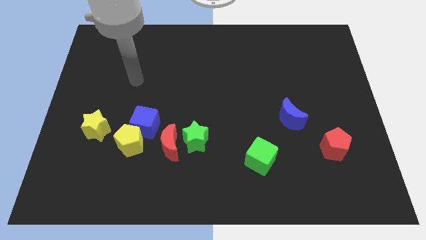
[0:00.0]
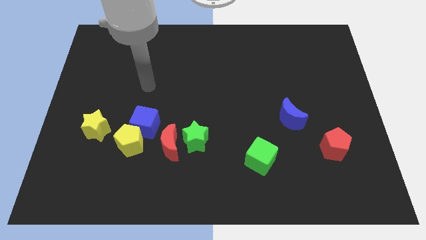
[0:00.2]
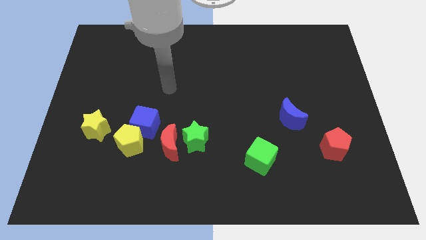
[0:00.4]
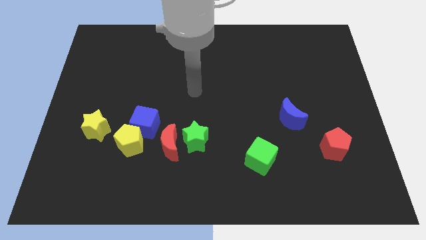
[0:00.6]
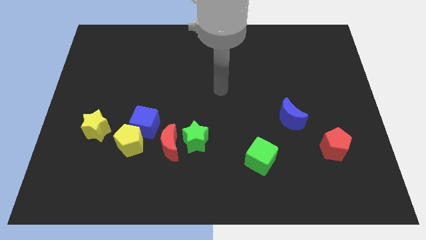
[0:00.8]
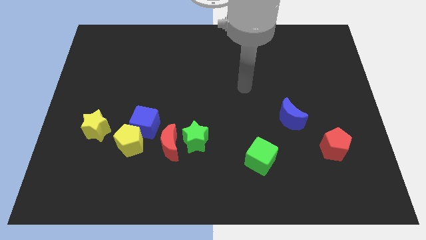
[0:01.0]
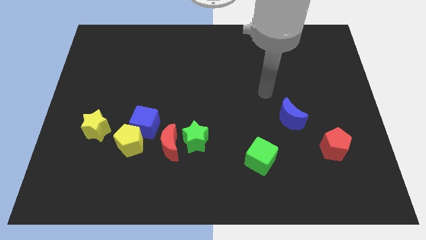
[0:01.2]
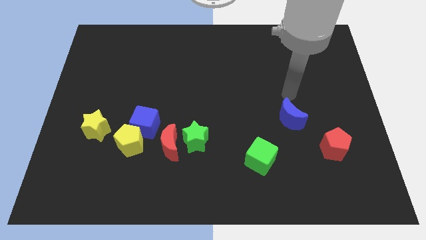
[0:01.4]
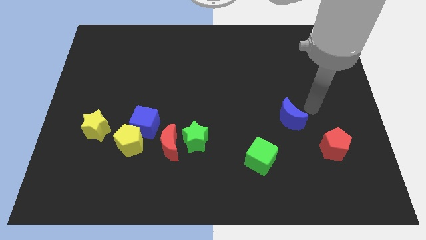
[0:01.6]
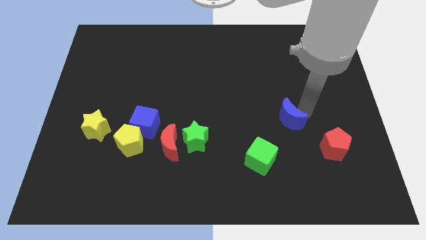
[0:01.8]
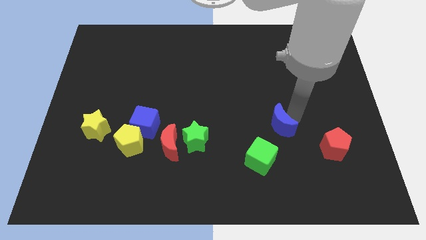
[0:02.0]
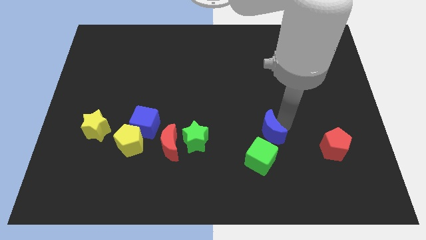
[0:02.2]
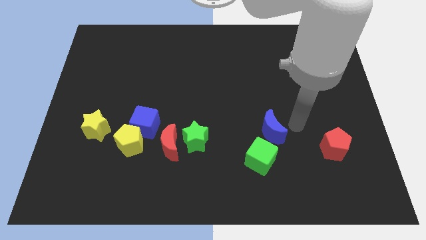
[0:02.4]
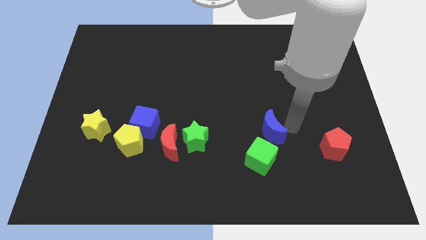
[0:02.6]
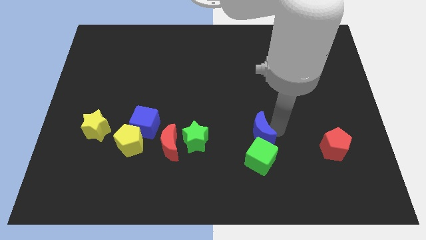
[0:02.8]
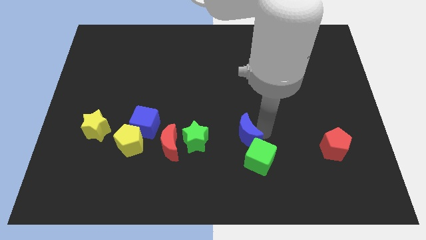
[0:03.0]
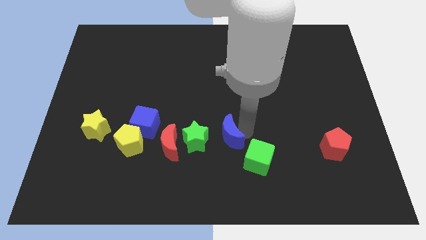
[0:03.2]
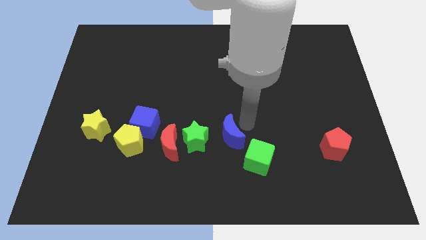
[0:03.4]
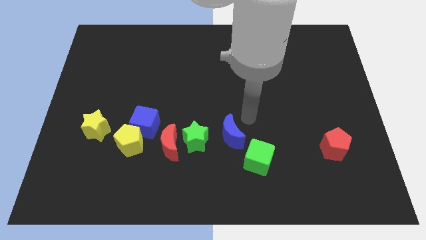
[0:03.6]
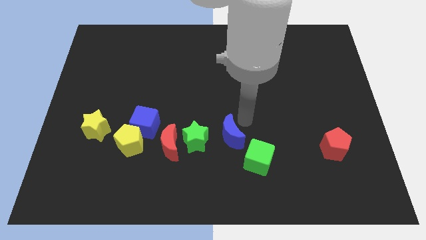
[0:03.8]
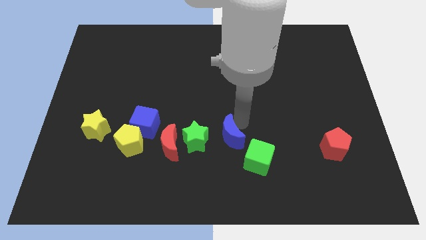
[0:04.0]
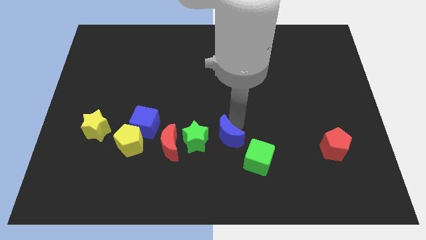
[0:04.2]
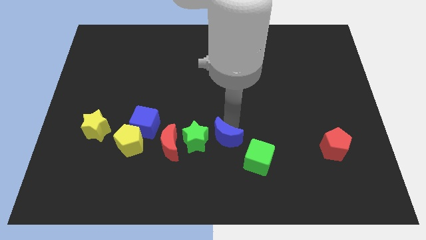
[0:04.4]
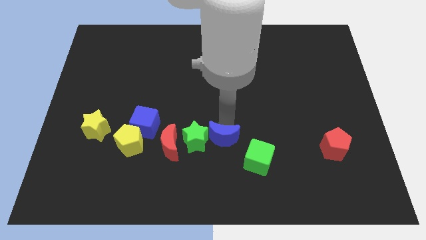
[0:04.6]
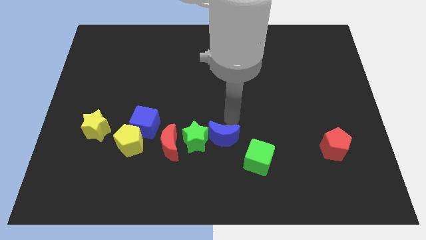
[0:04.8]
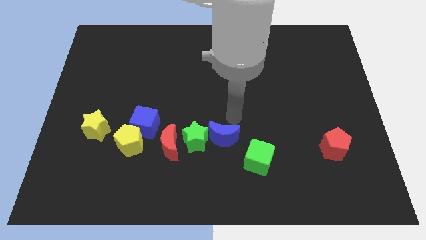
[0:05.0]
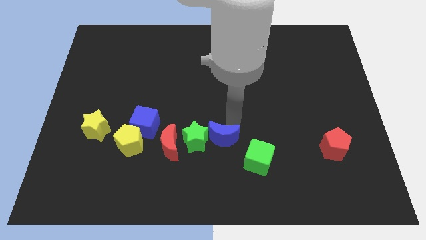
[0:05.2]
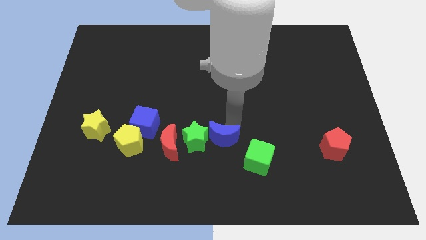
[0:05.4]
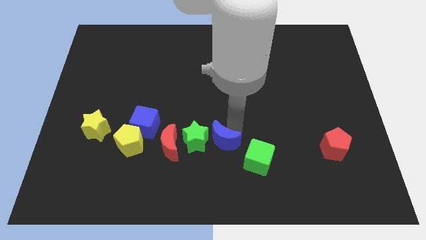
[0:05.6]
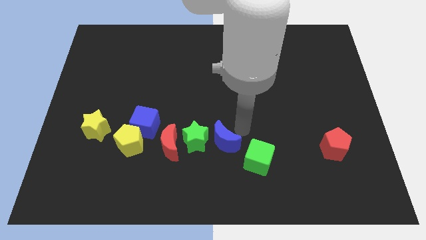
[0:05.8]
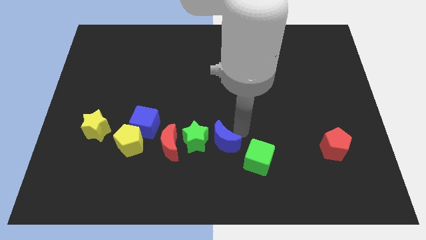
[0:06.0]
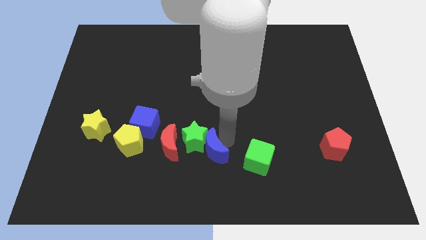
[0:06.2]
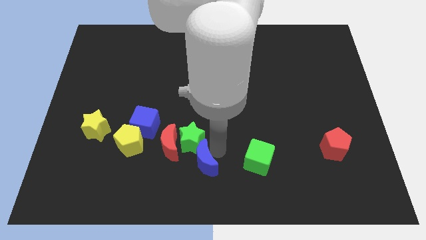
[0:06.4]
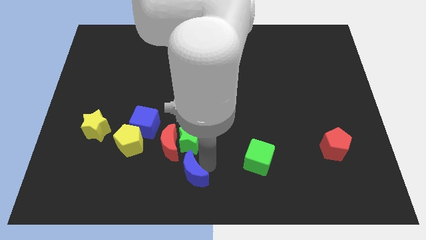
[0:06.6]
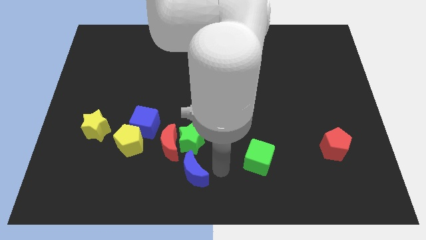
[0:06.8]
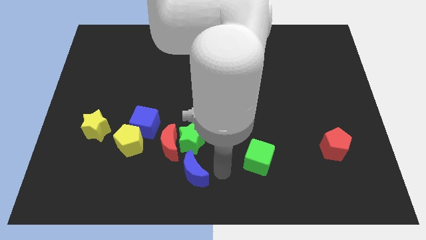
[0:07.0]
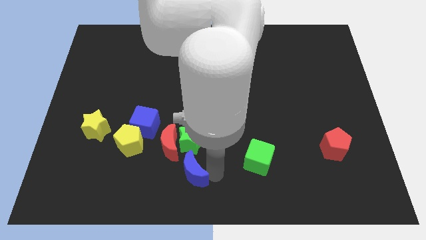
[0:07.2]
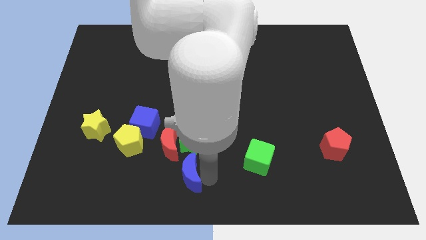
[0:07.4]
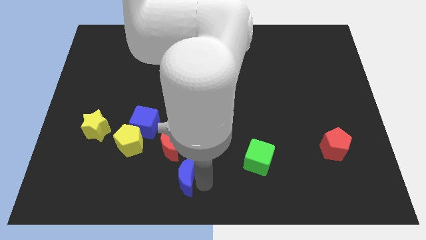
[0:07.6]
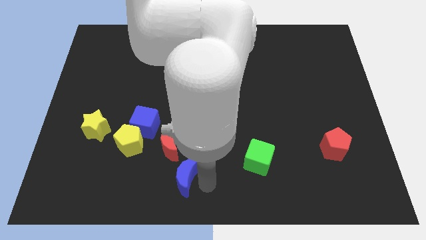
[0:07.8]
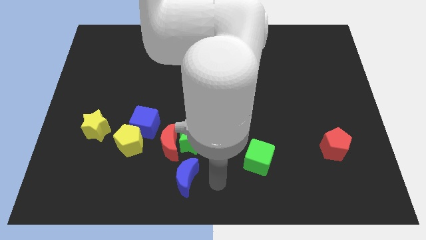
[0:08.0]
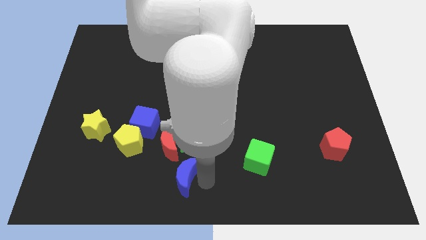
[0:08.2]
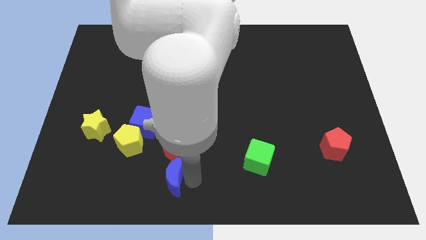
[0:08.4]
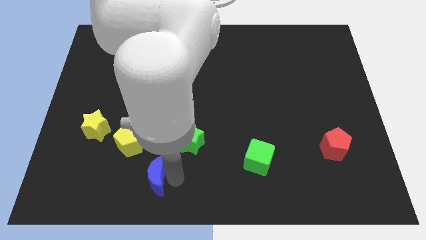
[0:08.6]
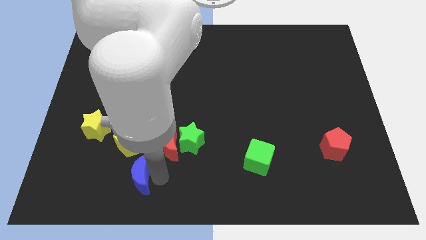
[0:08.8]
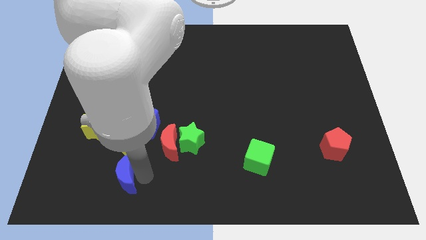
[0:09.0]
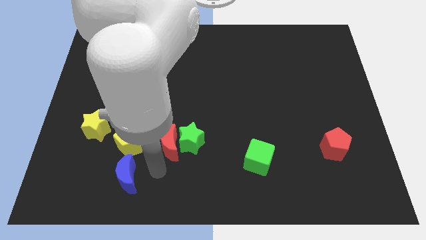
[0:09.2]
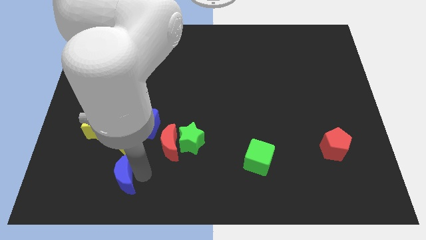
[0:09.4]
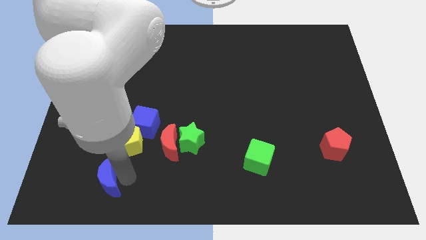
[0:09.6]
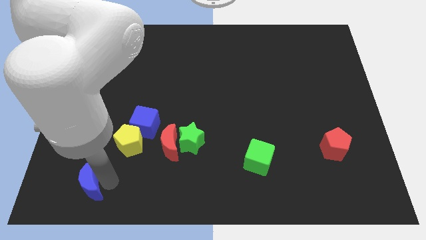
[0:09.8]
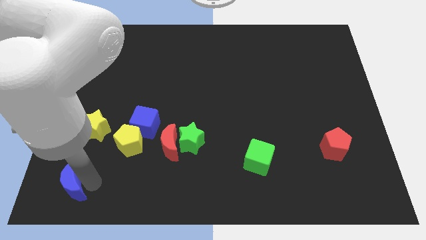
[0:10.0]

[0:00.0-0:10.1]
slide the blue moon to the bottom left corner

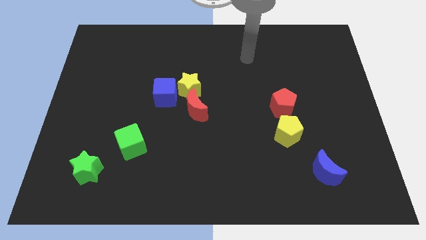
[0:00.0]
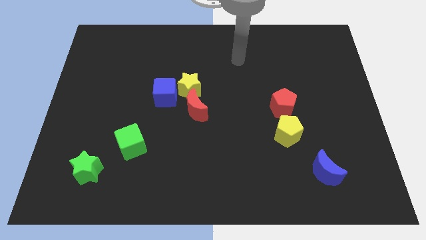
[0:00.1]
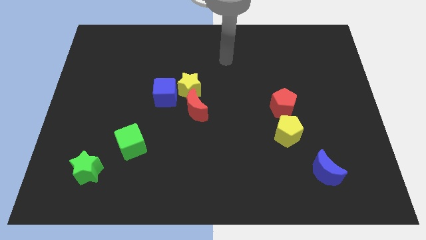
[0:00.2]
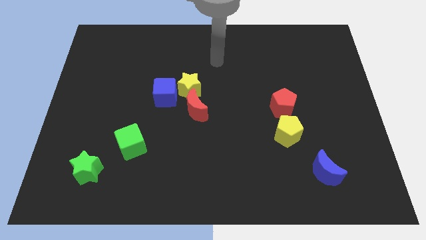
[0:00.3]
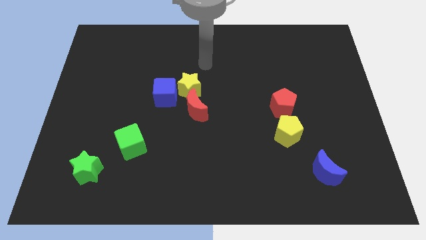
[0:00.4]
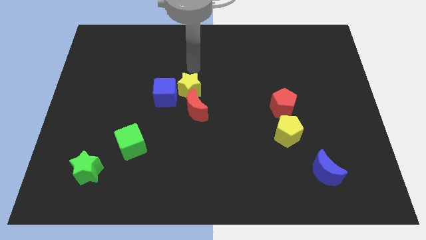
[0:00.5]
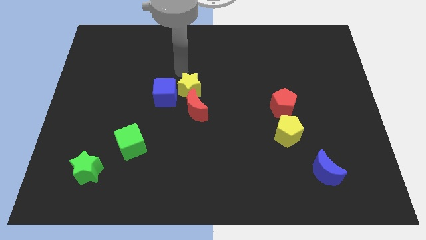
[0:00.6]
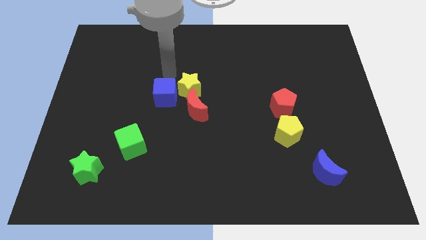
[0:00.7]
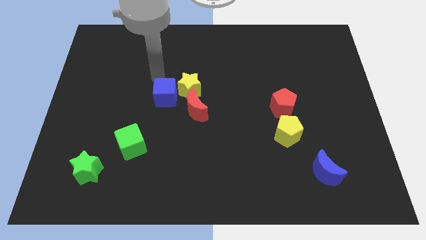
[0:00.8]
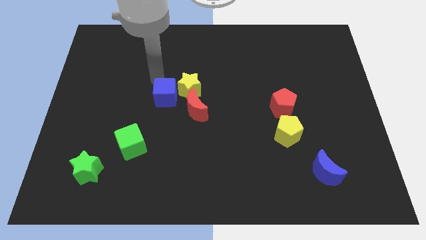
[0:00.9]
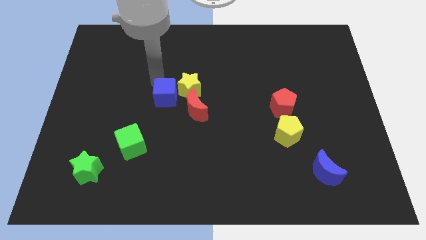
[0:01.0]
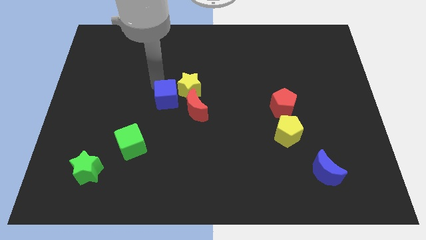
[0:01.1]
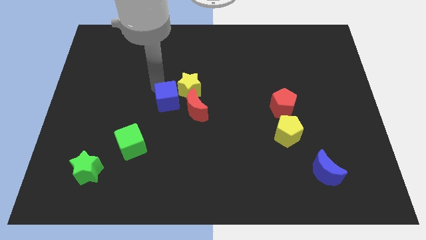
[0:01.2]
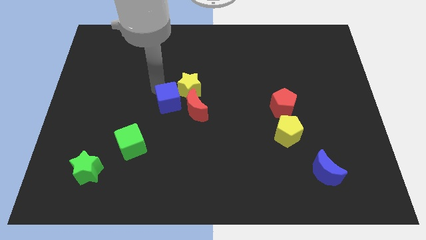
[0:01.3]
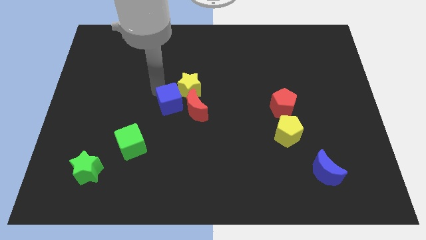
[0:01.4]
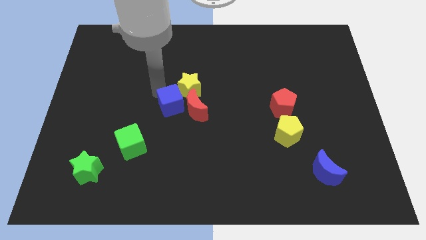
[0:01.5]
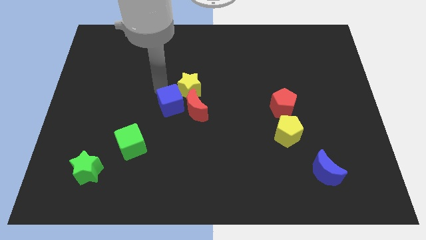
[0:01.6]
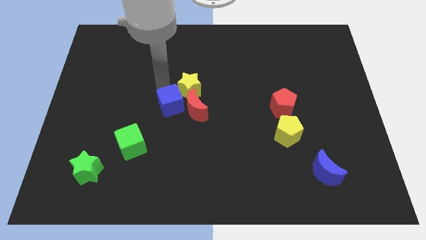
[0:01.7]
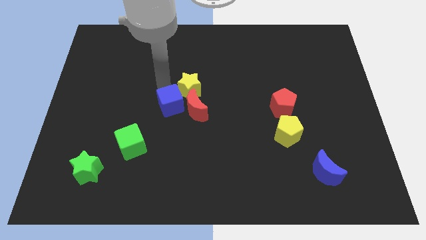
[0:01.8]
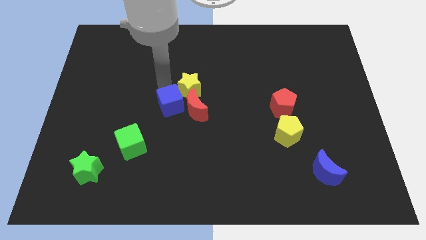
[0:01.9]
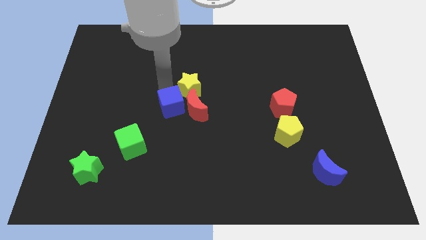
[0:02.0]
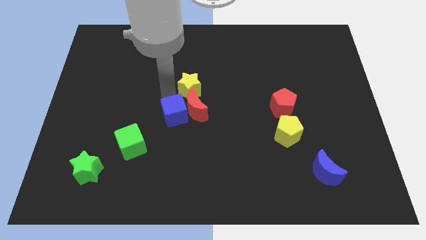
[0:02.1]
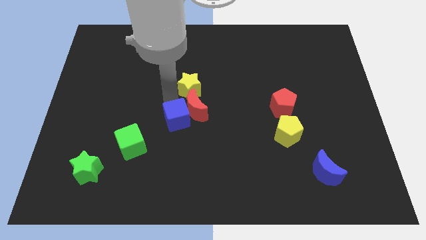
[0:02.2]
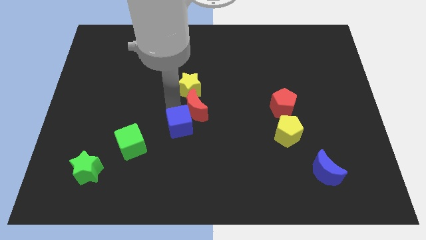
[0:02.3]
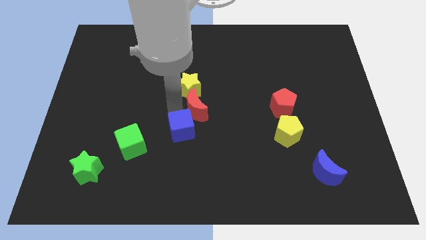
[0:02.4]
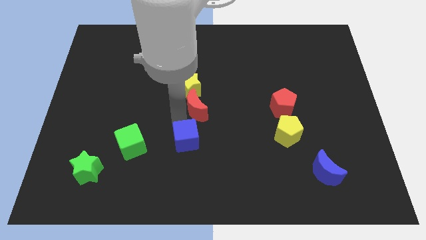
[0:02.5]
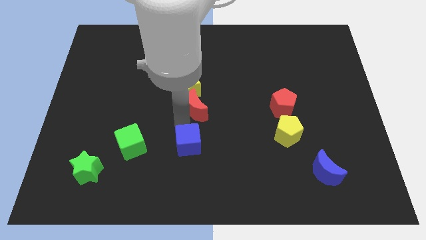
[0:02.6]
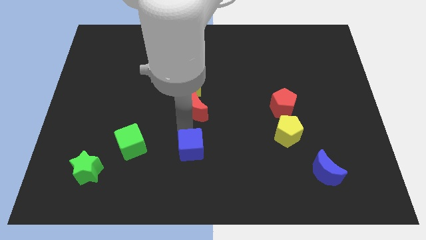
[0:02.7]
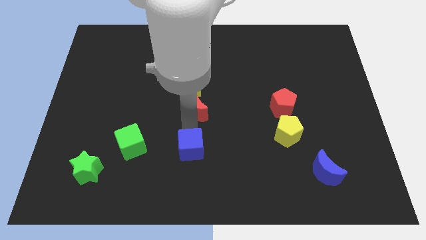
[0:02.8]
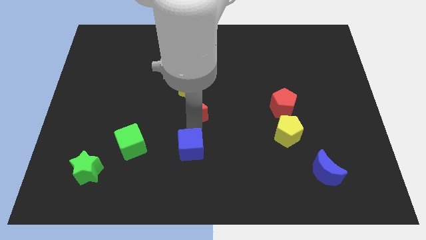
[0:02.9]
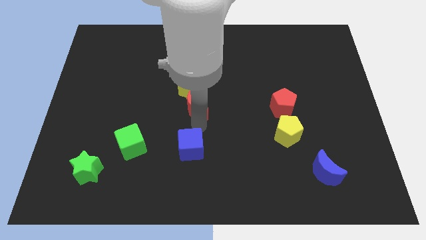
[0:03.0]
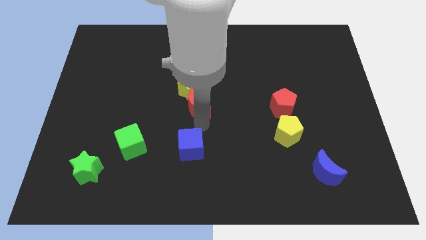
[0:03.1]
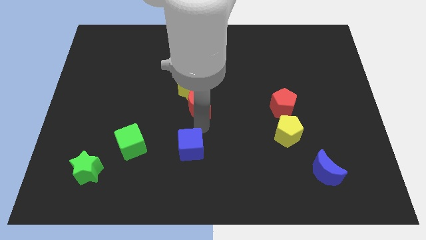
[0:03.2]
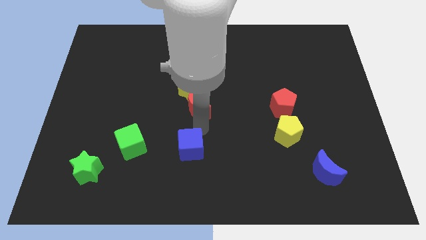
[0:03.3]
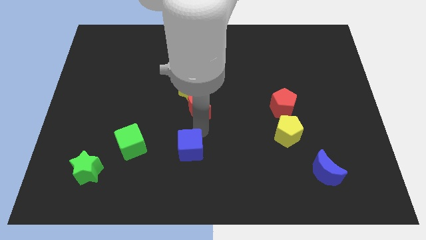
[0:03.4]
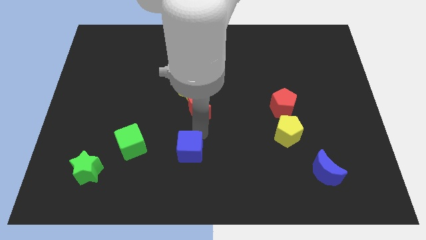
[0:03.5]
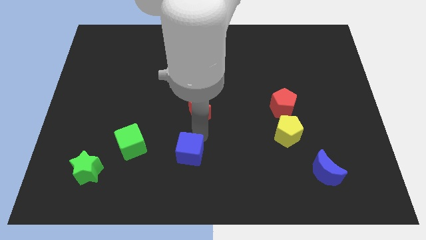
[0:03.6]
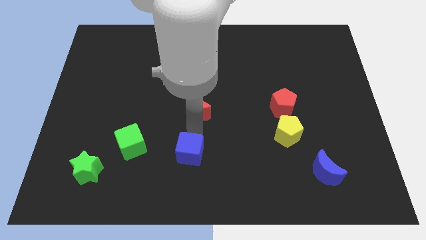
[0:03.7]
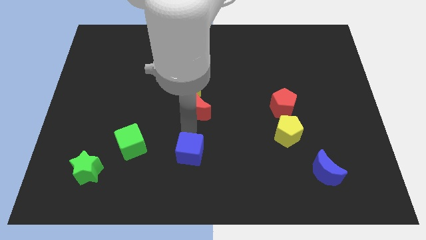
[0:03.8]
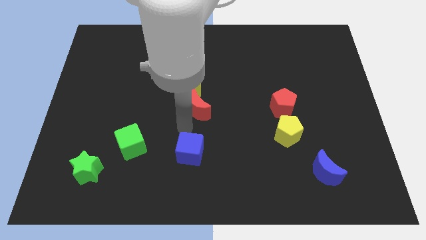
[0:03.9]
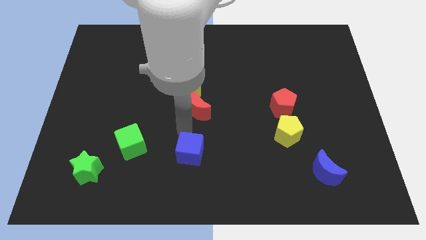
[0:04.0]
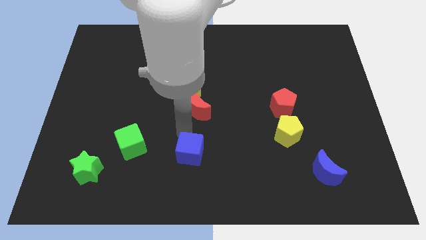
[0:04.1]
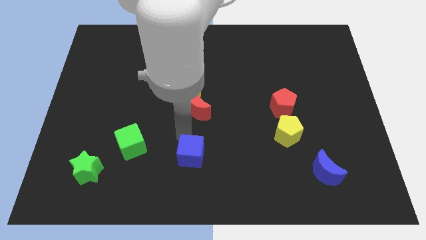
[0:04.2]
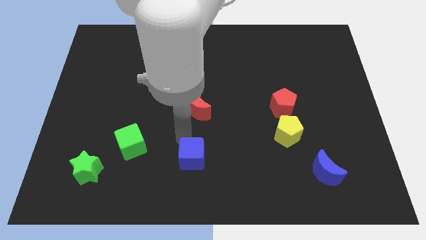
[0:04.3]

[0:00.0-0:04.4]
push the blue cube to the bottom
